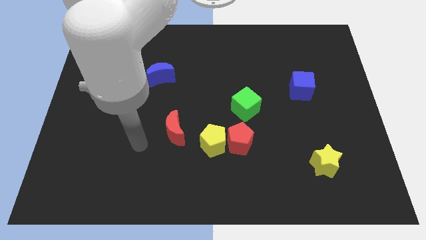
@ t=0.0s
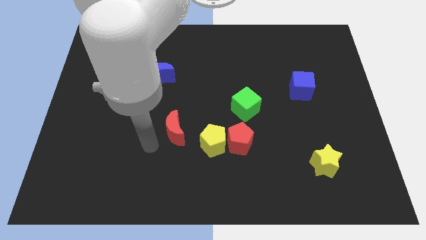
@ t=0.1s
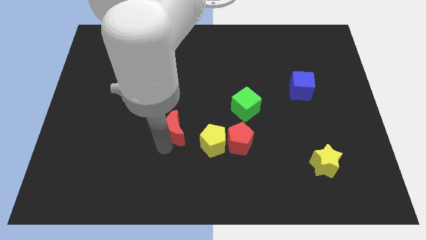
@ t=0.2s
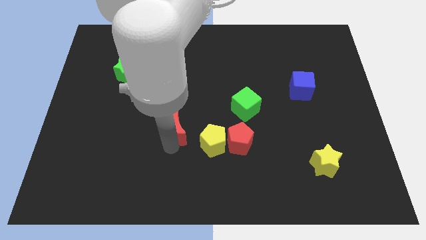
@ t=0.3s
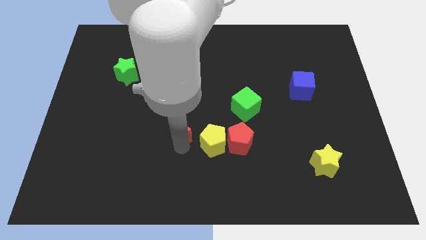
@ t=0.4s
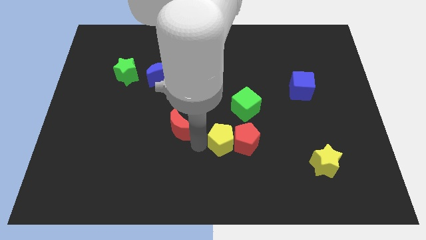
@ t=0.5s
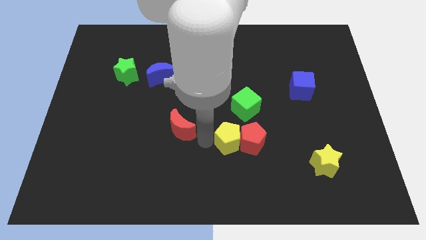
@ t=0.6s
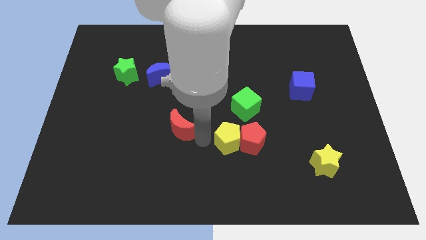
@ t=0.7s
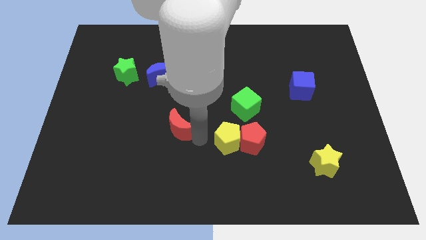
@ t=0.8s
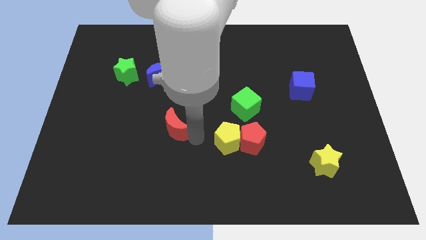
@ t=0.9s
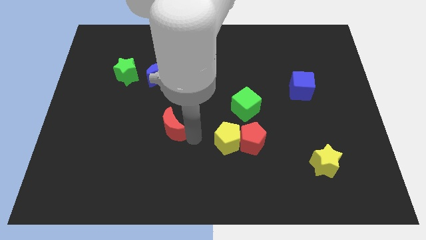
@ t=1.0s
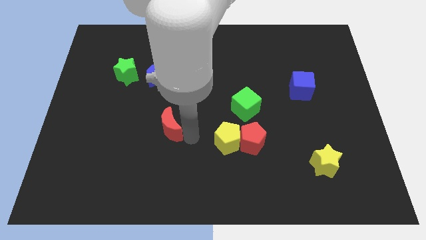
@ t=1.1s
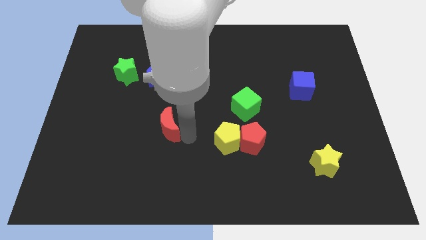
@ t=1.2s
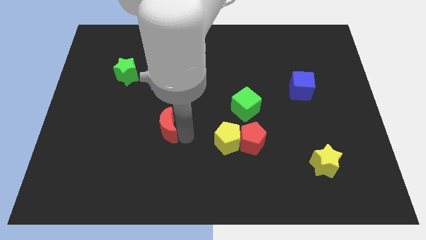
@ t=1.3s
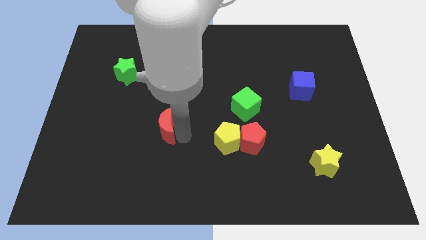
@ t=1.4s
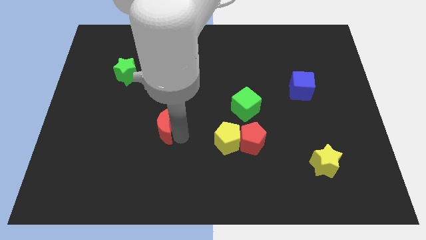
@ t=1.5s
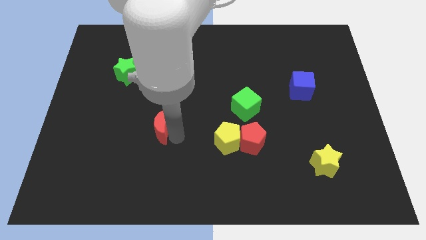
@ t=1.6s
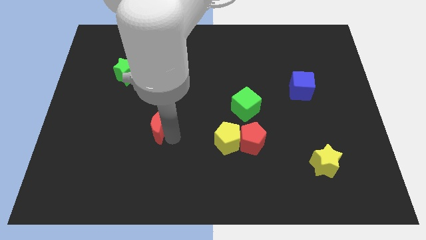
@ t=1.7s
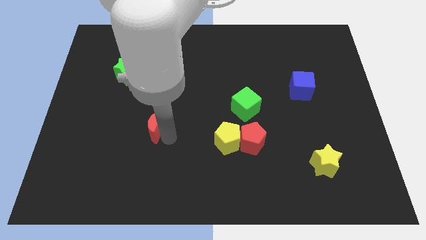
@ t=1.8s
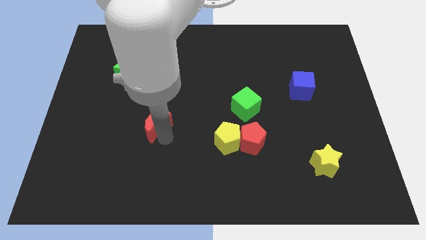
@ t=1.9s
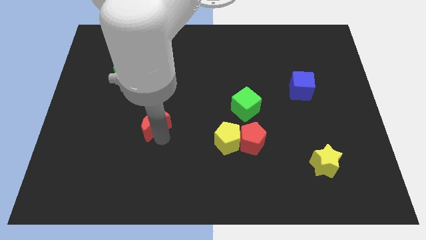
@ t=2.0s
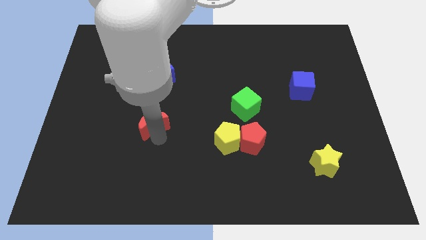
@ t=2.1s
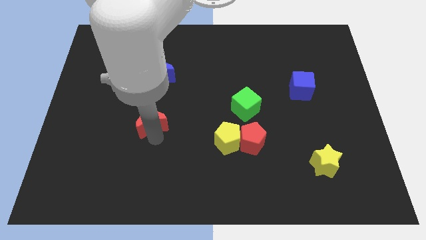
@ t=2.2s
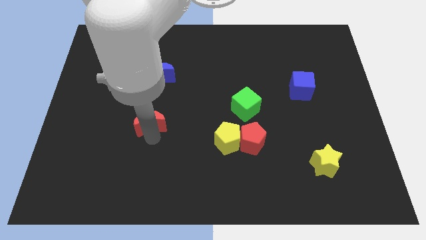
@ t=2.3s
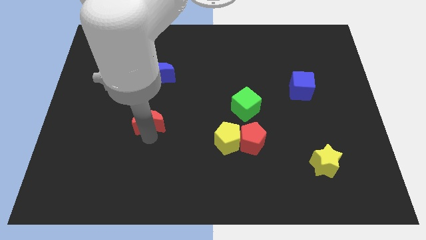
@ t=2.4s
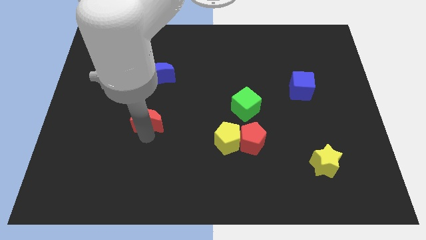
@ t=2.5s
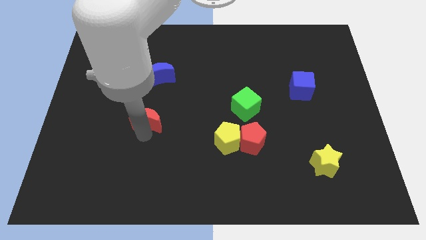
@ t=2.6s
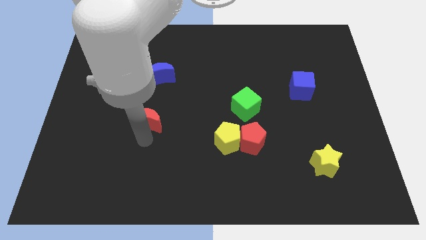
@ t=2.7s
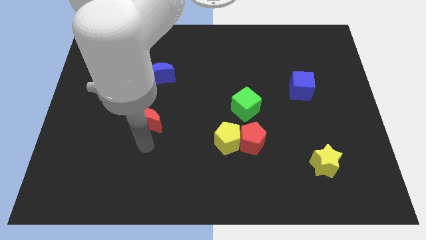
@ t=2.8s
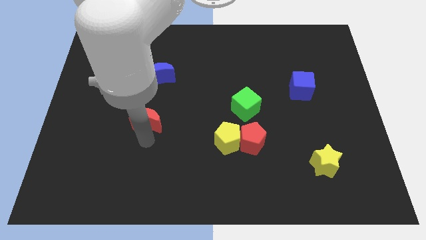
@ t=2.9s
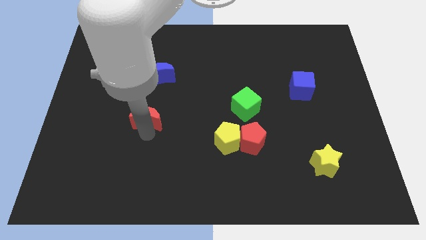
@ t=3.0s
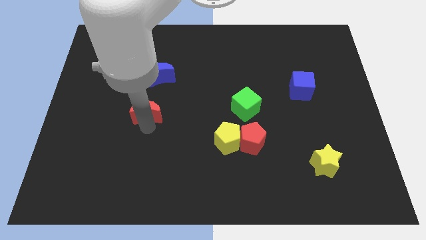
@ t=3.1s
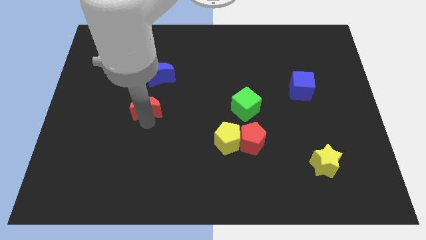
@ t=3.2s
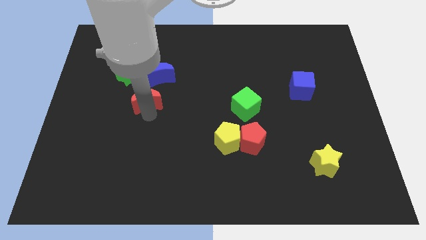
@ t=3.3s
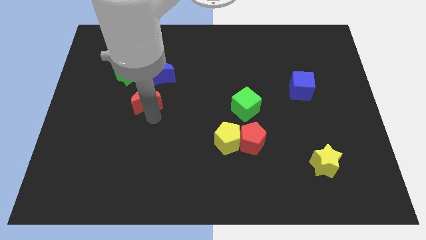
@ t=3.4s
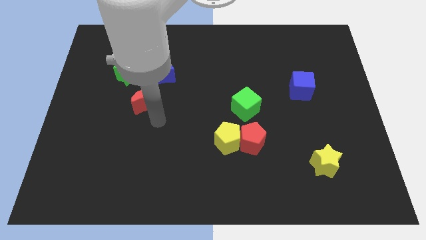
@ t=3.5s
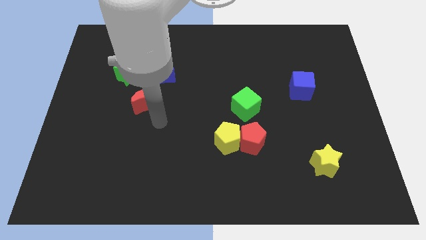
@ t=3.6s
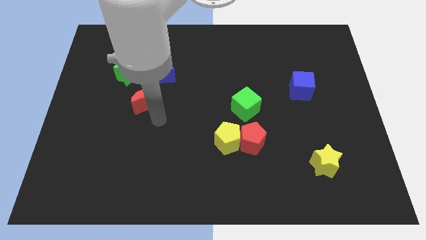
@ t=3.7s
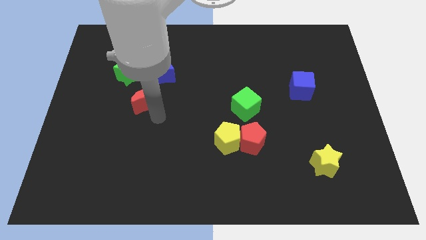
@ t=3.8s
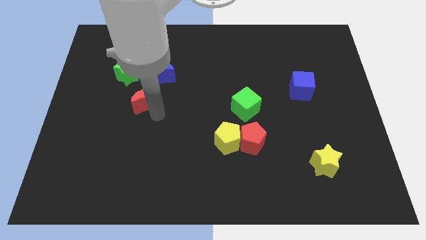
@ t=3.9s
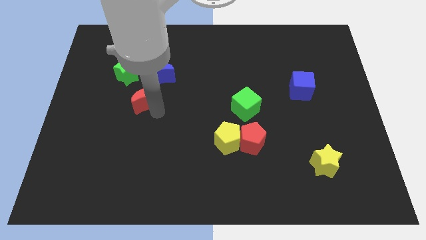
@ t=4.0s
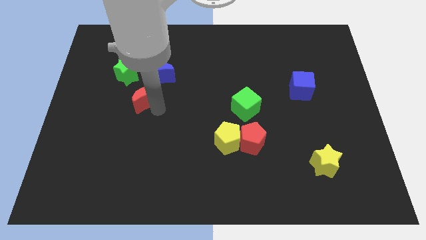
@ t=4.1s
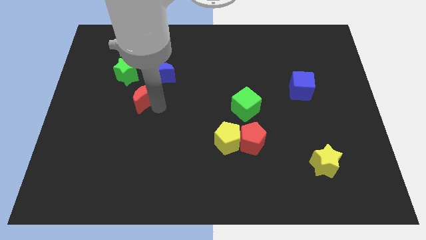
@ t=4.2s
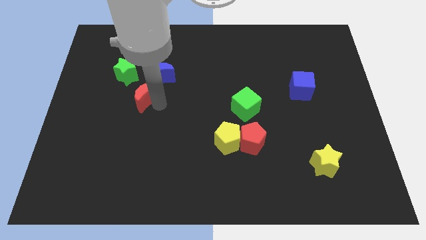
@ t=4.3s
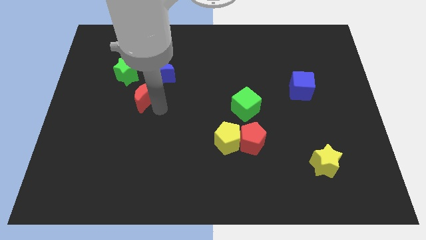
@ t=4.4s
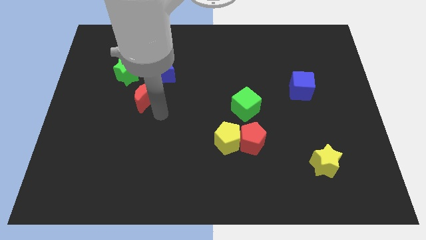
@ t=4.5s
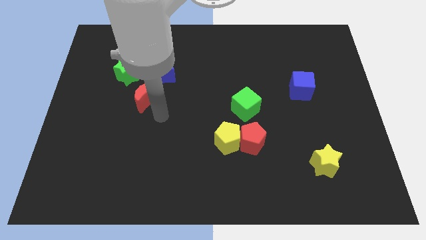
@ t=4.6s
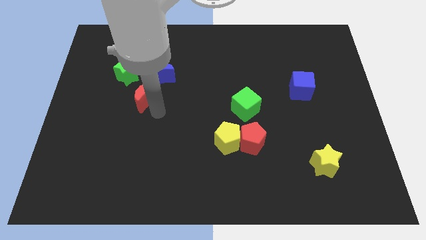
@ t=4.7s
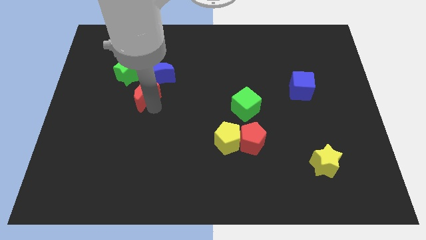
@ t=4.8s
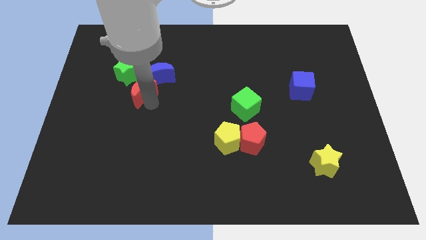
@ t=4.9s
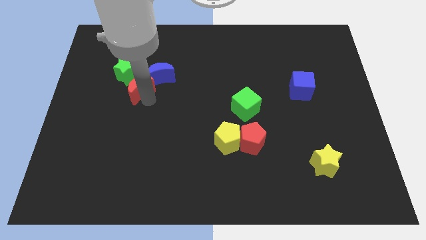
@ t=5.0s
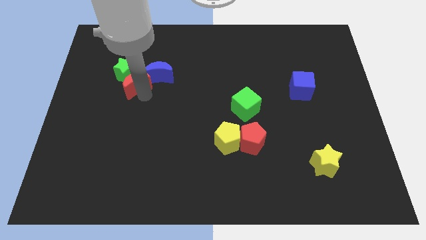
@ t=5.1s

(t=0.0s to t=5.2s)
put the red moon towards the green star

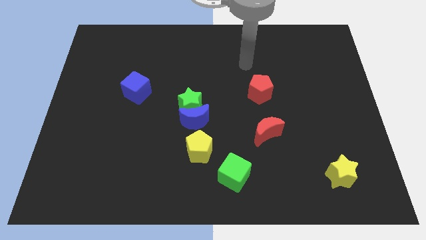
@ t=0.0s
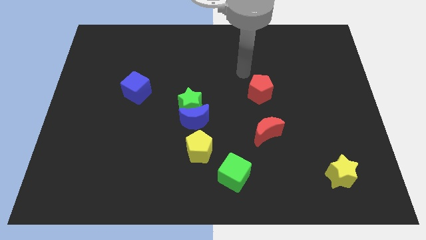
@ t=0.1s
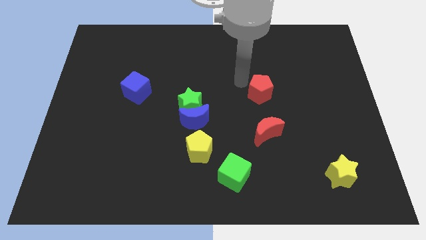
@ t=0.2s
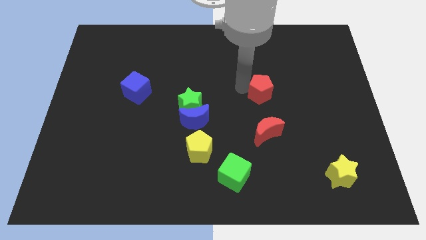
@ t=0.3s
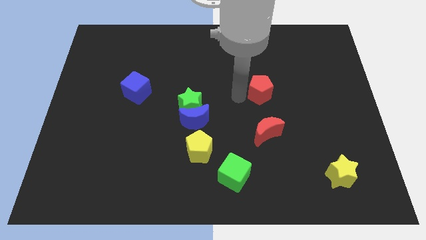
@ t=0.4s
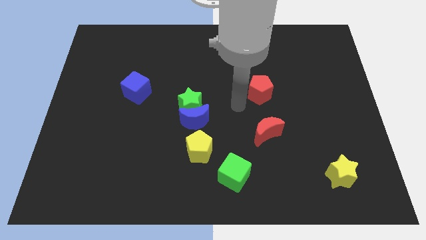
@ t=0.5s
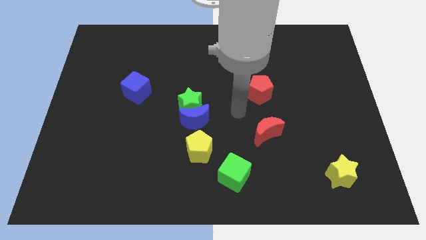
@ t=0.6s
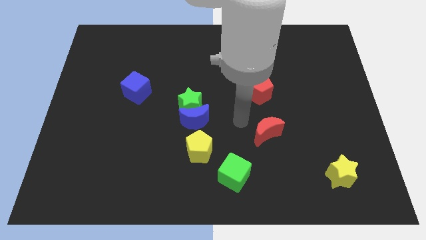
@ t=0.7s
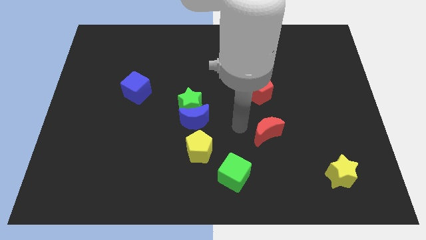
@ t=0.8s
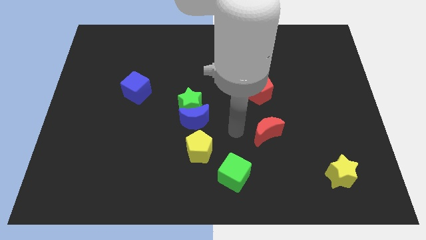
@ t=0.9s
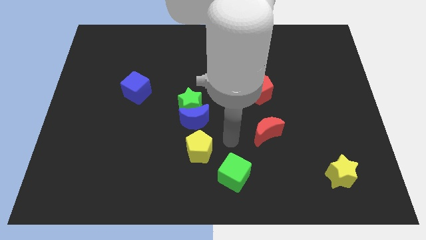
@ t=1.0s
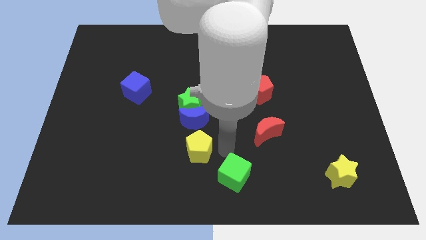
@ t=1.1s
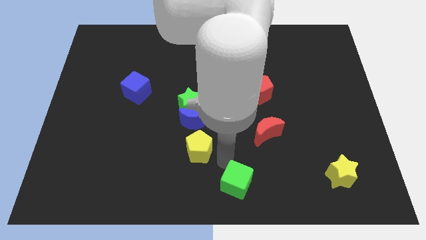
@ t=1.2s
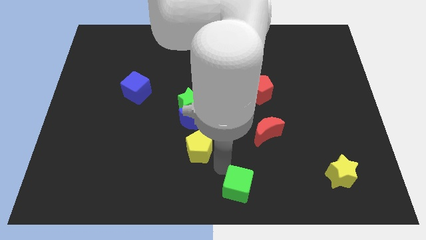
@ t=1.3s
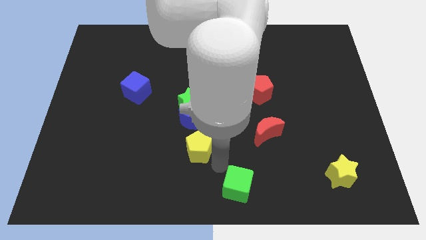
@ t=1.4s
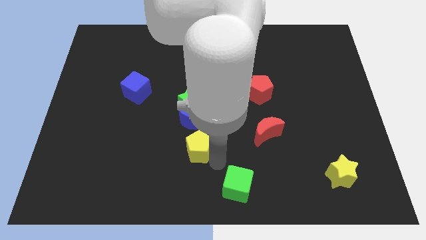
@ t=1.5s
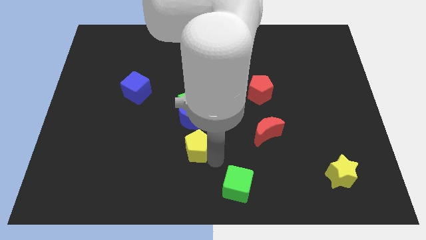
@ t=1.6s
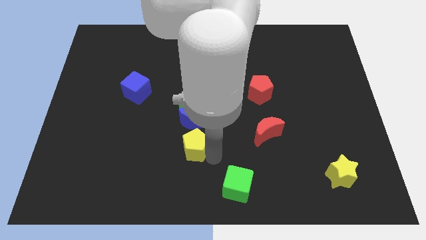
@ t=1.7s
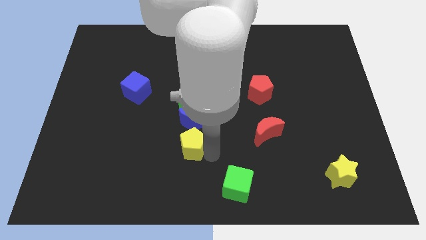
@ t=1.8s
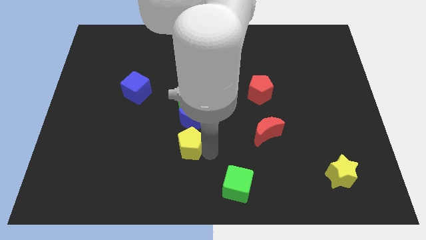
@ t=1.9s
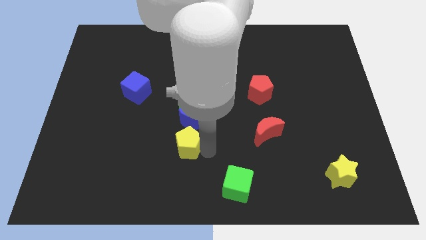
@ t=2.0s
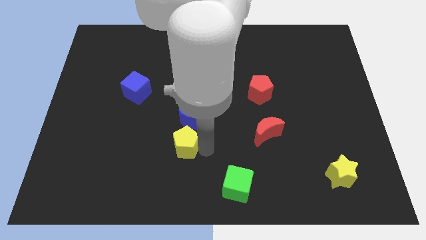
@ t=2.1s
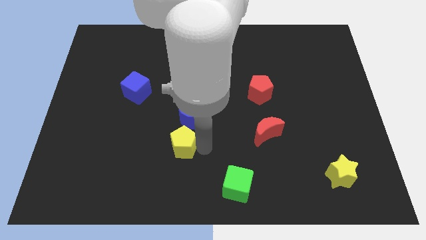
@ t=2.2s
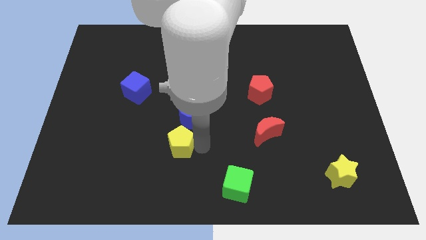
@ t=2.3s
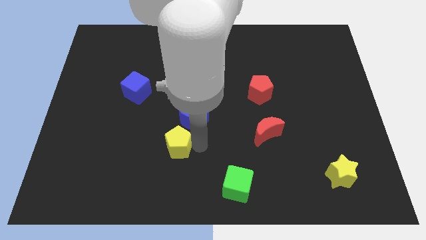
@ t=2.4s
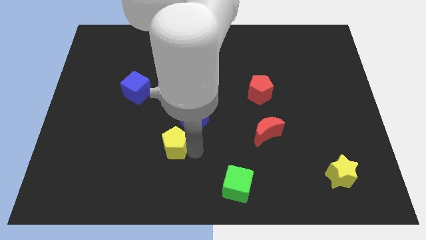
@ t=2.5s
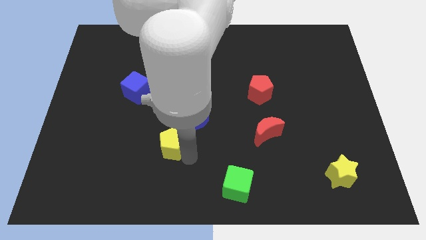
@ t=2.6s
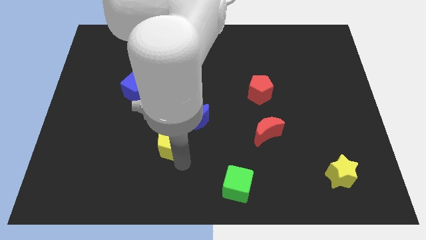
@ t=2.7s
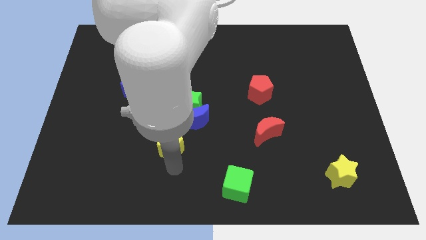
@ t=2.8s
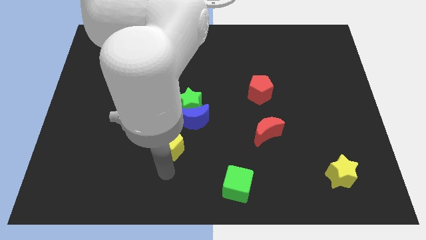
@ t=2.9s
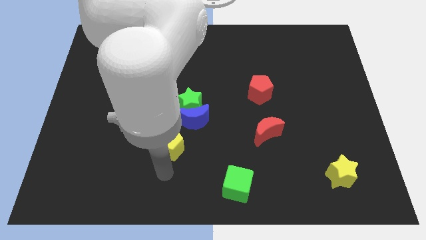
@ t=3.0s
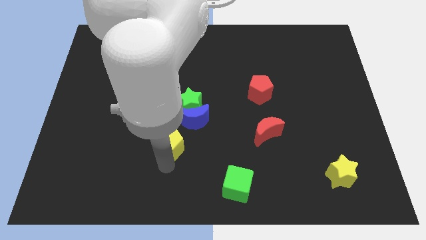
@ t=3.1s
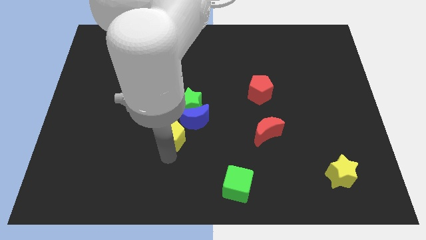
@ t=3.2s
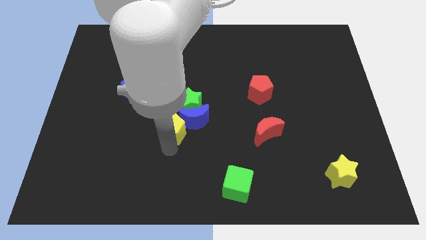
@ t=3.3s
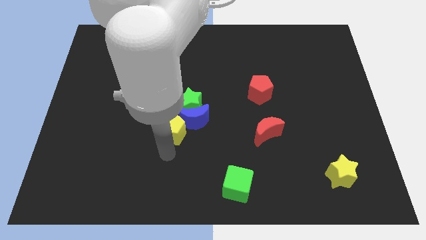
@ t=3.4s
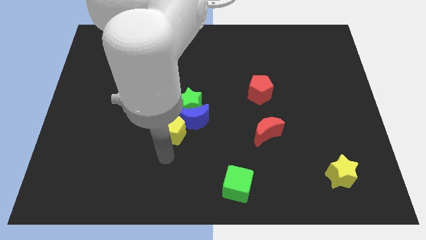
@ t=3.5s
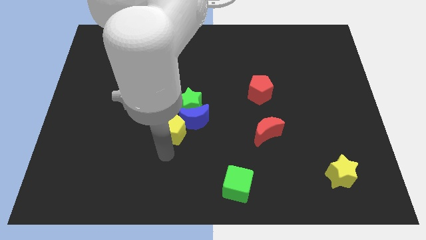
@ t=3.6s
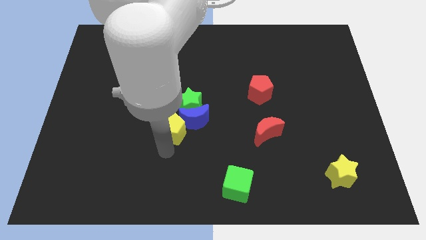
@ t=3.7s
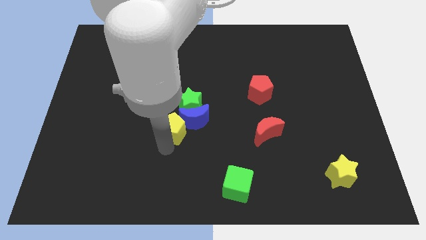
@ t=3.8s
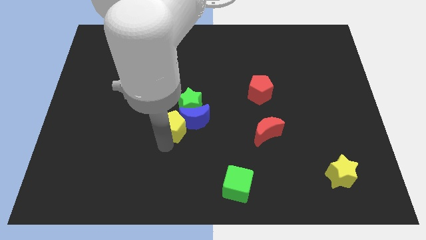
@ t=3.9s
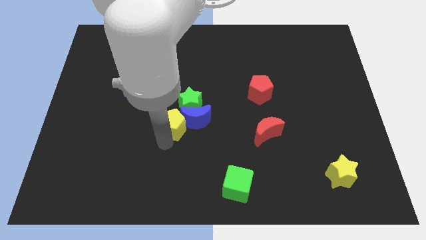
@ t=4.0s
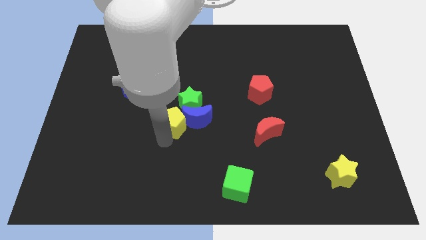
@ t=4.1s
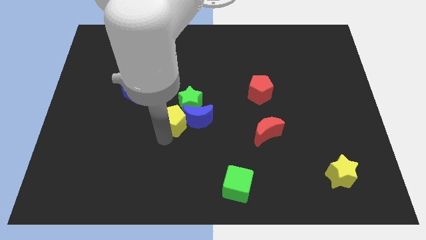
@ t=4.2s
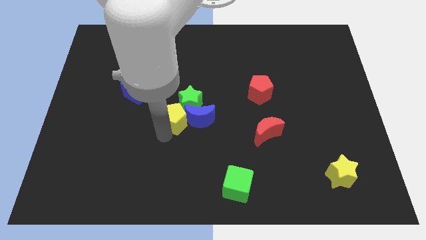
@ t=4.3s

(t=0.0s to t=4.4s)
put the yellow pentagon close to the green star
